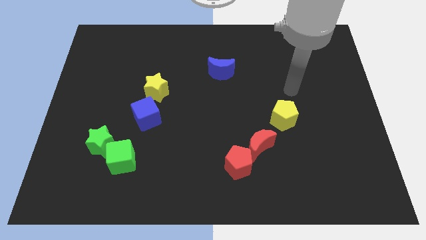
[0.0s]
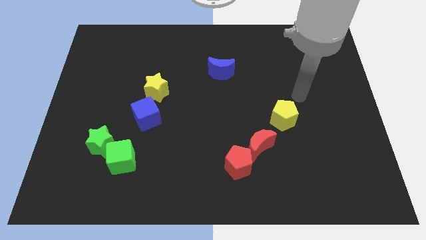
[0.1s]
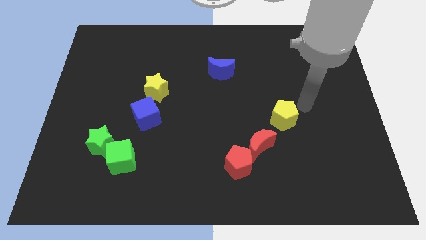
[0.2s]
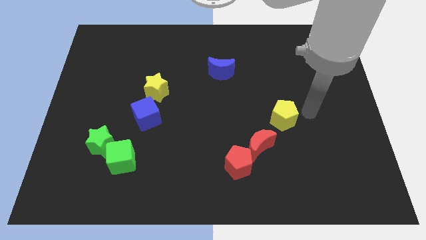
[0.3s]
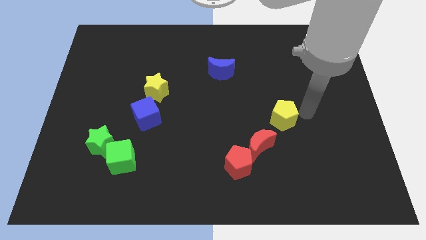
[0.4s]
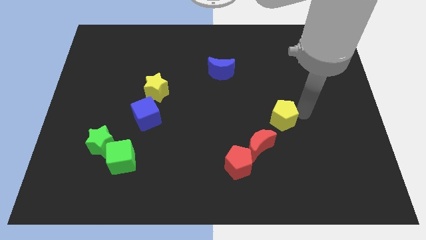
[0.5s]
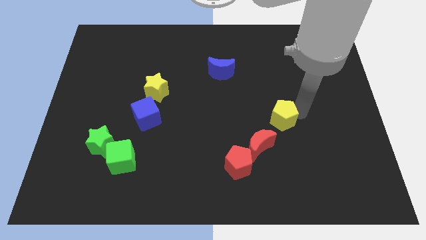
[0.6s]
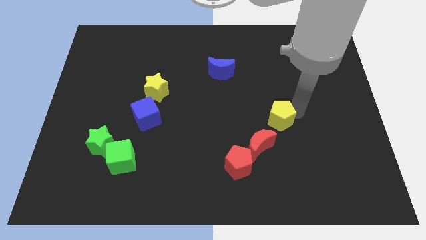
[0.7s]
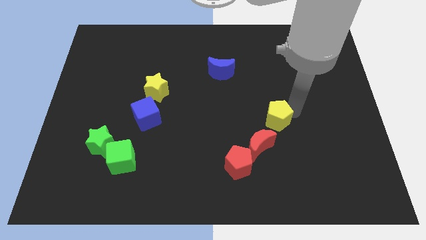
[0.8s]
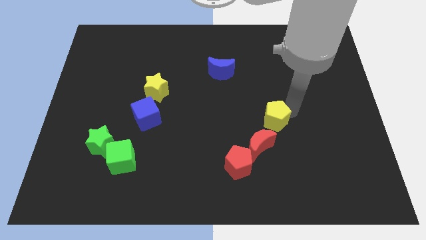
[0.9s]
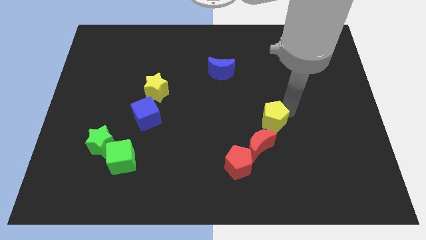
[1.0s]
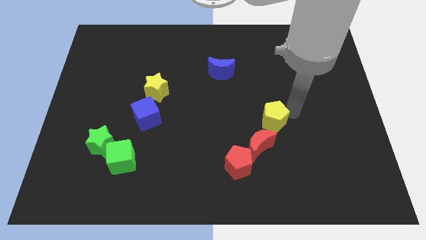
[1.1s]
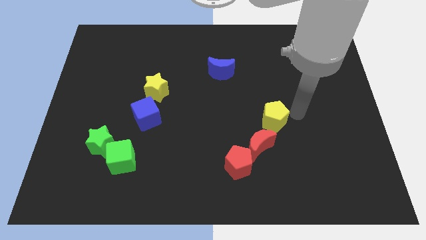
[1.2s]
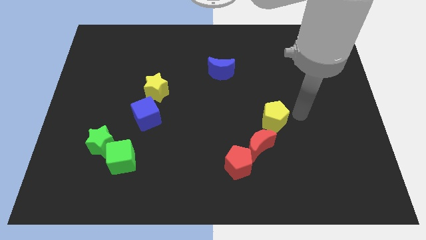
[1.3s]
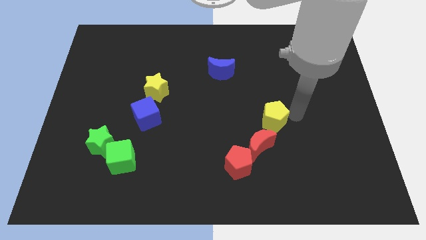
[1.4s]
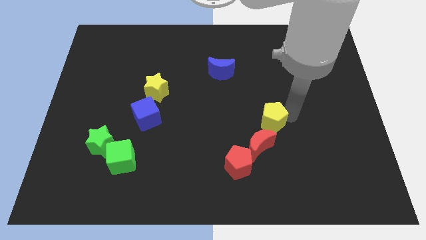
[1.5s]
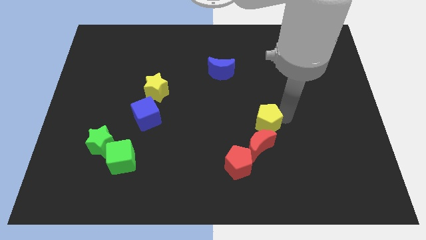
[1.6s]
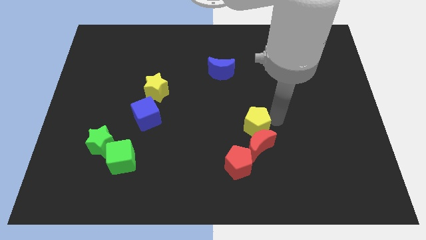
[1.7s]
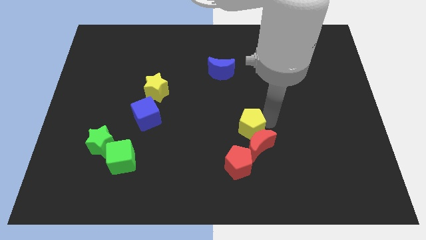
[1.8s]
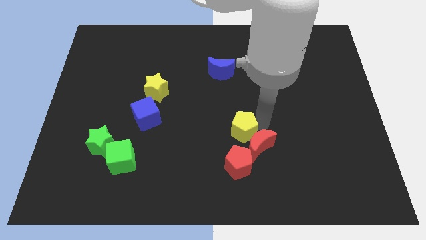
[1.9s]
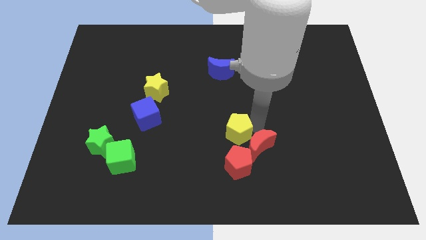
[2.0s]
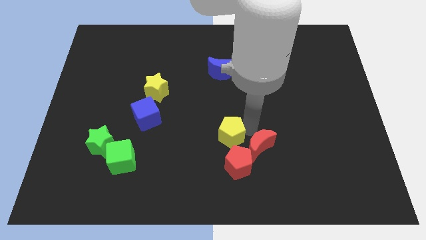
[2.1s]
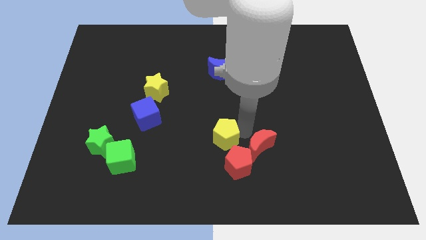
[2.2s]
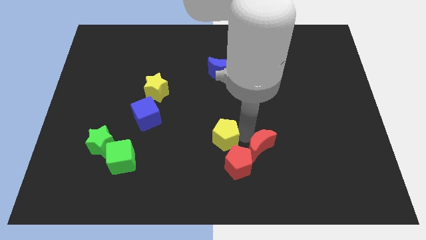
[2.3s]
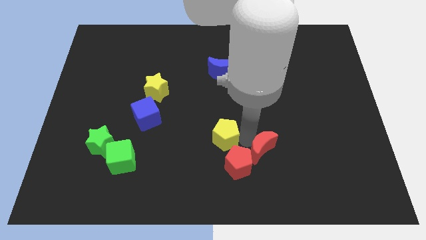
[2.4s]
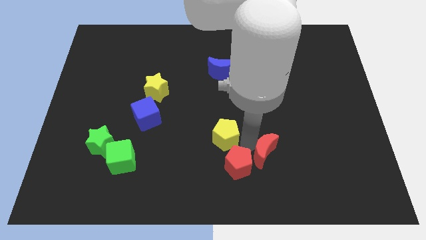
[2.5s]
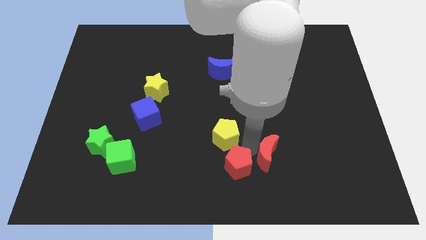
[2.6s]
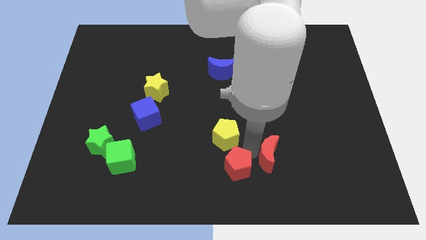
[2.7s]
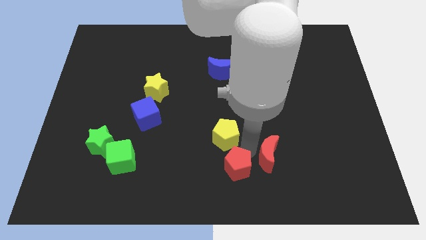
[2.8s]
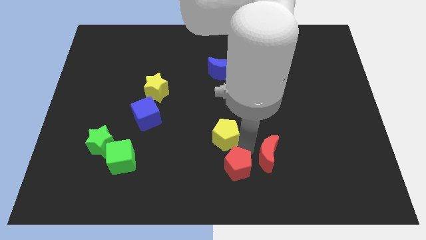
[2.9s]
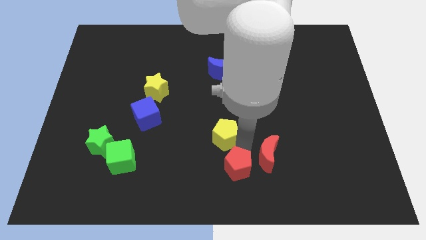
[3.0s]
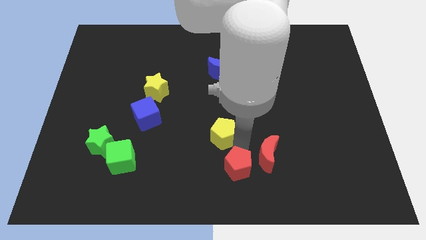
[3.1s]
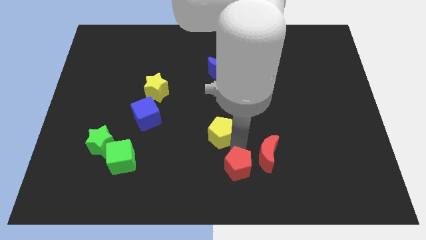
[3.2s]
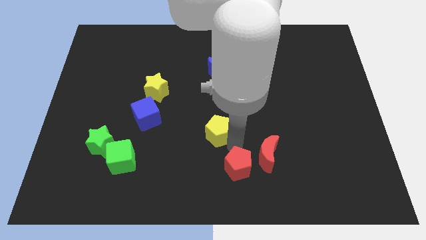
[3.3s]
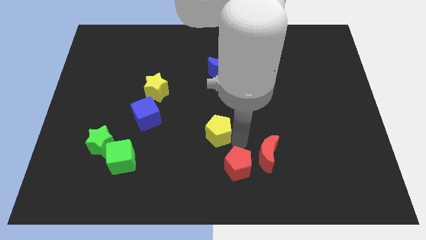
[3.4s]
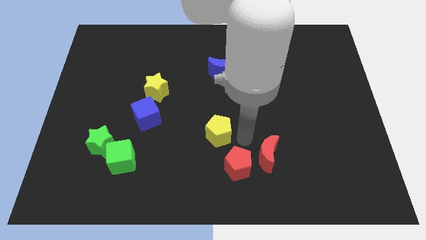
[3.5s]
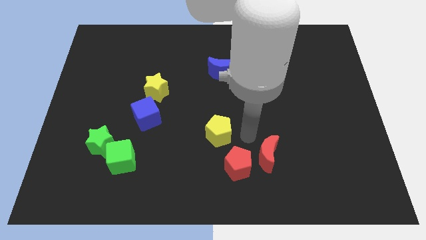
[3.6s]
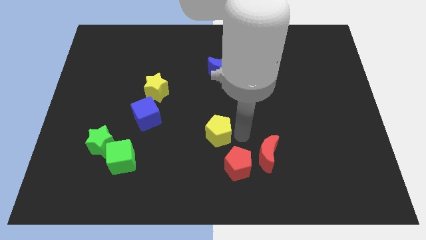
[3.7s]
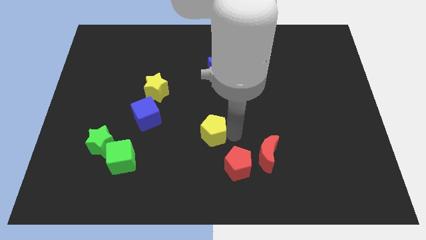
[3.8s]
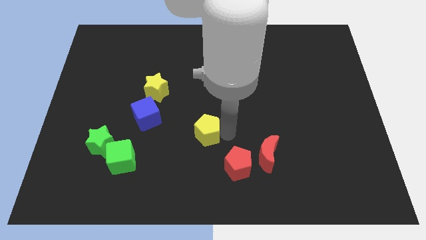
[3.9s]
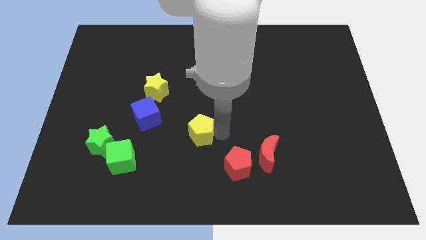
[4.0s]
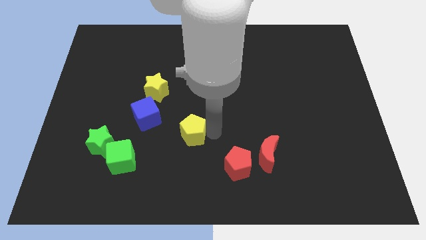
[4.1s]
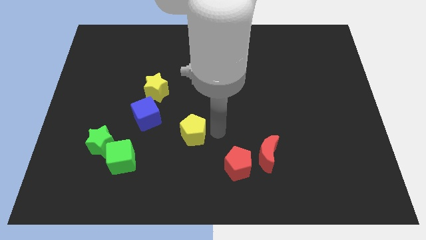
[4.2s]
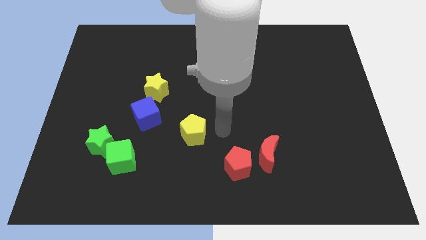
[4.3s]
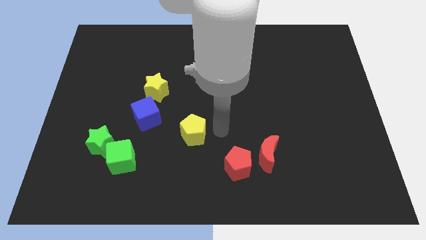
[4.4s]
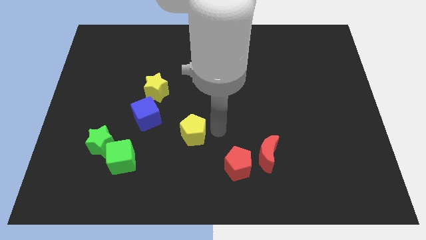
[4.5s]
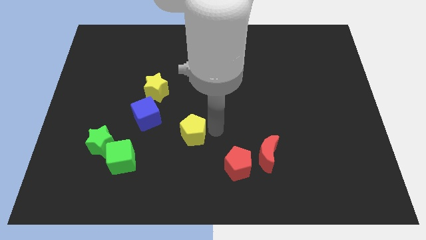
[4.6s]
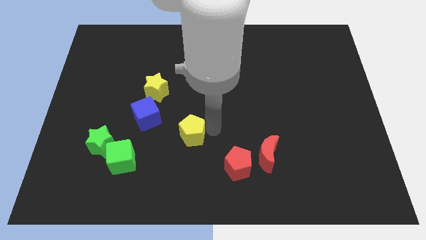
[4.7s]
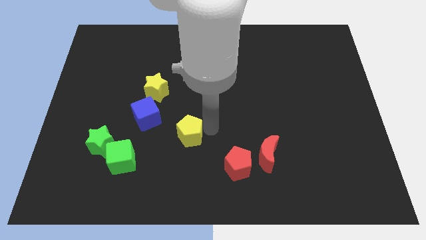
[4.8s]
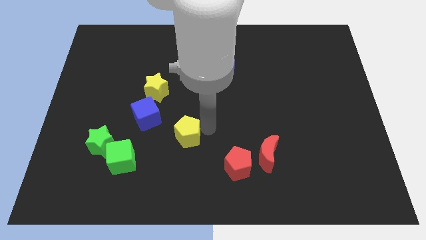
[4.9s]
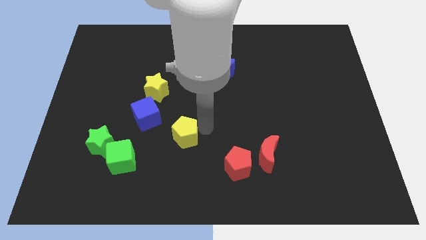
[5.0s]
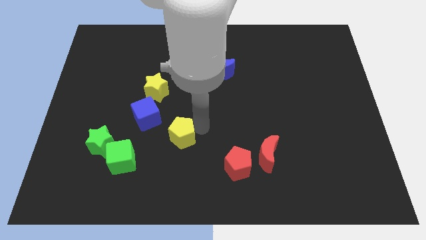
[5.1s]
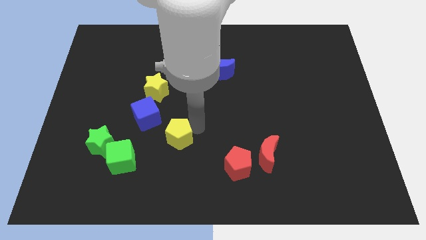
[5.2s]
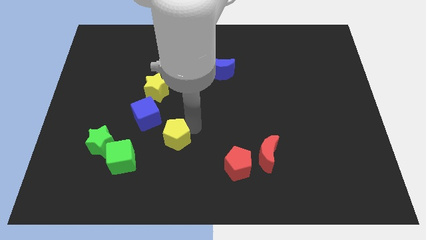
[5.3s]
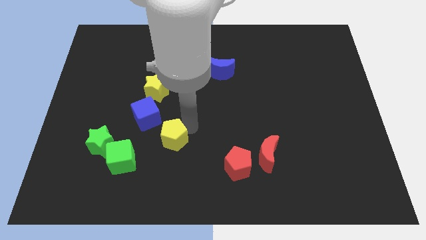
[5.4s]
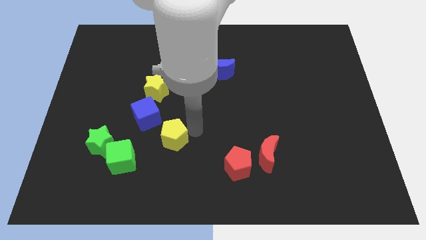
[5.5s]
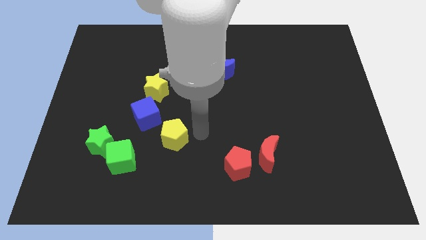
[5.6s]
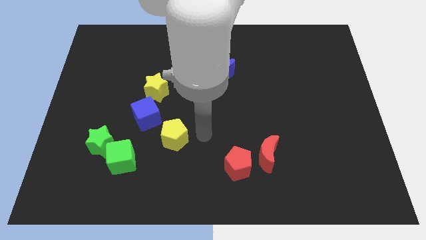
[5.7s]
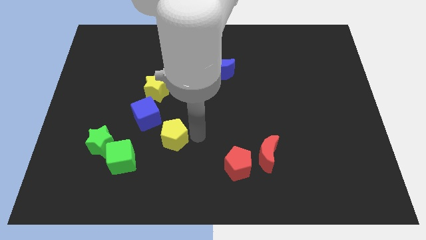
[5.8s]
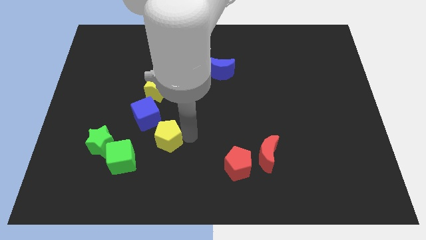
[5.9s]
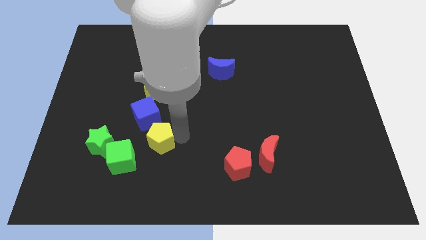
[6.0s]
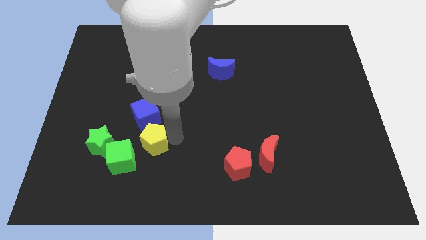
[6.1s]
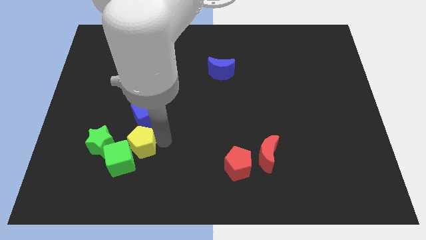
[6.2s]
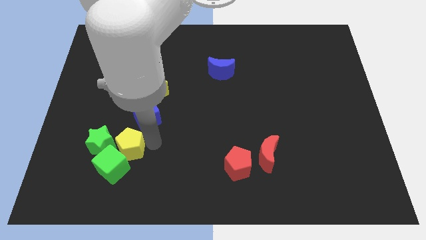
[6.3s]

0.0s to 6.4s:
move the yellow pentagon close to the green star

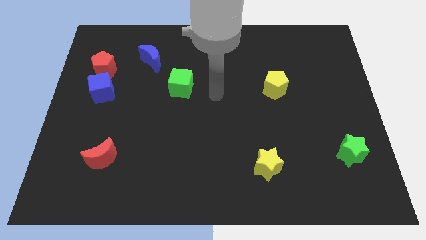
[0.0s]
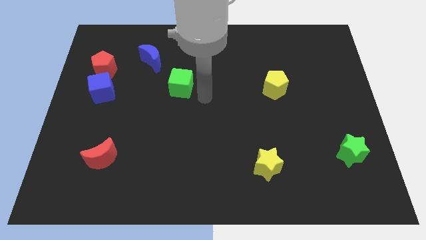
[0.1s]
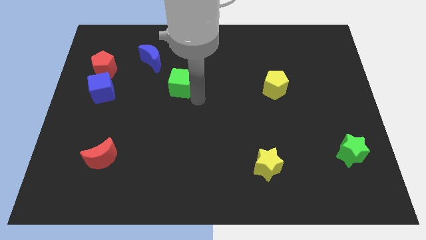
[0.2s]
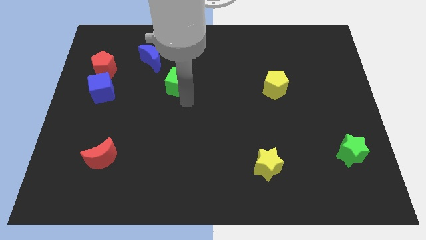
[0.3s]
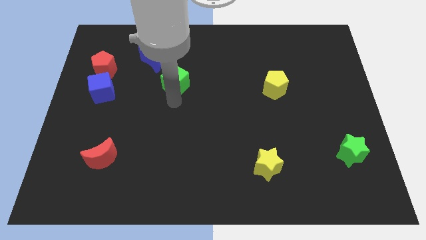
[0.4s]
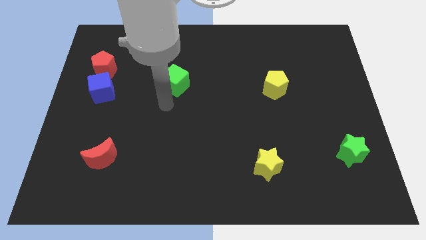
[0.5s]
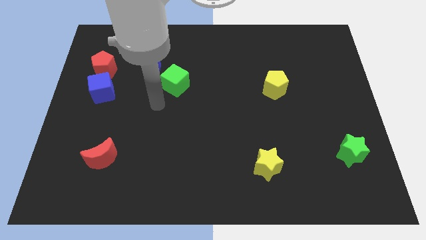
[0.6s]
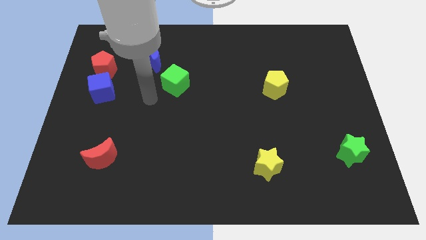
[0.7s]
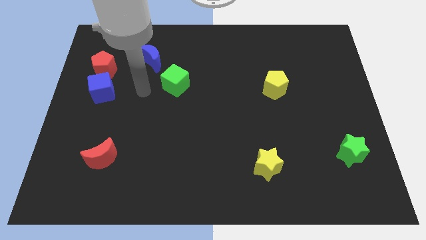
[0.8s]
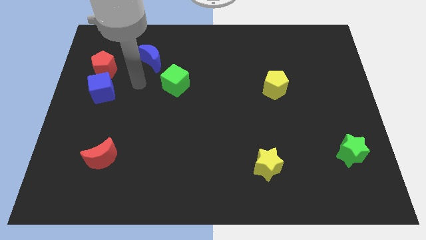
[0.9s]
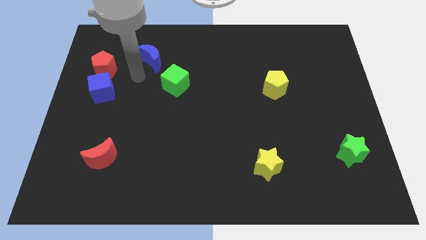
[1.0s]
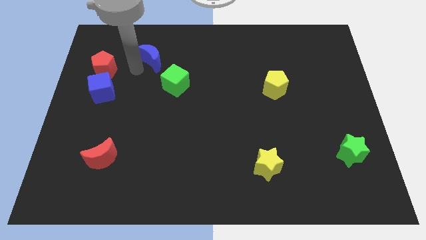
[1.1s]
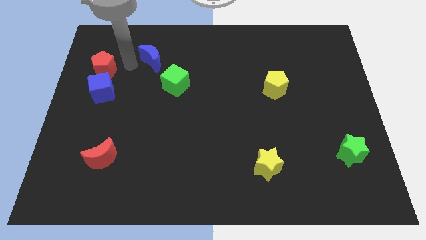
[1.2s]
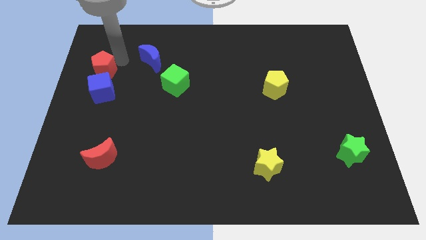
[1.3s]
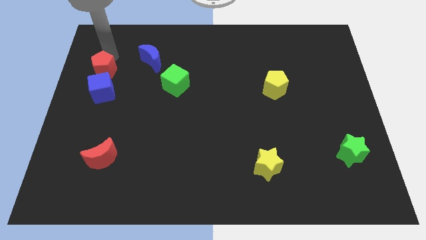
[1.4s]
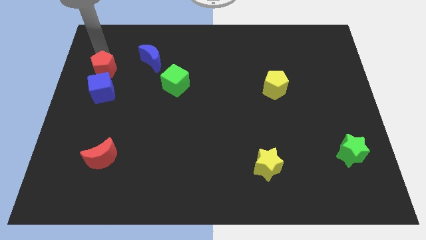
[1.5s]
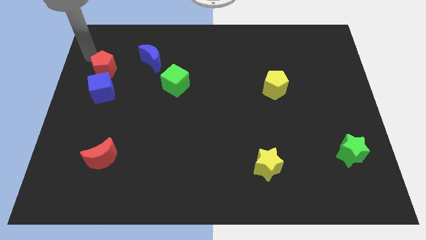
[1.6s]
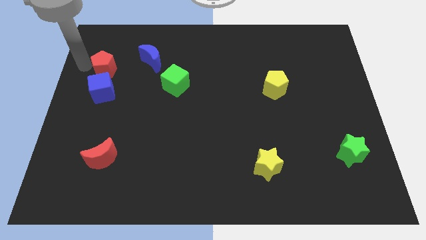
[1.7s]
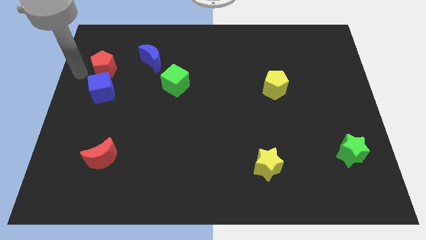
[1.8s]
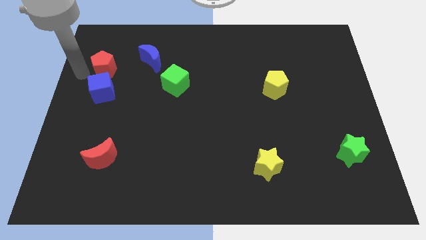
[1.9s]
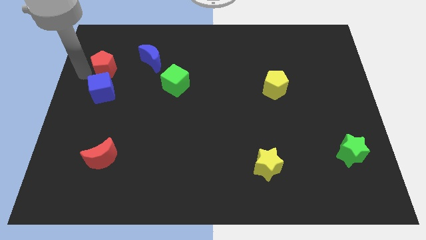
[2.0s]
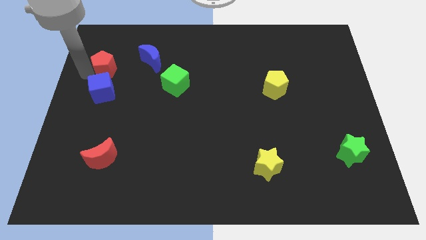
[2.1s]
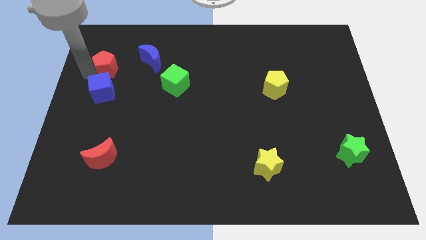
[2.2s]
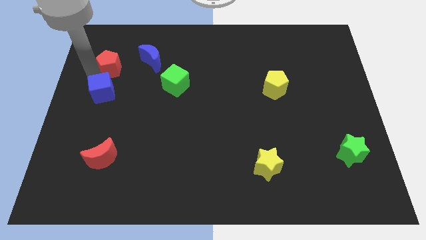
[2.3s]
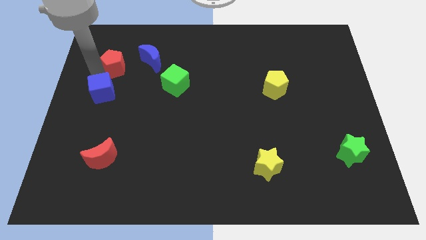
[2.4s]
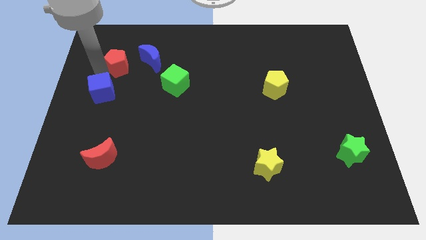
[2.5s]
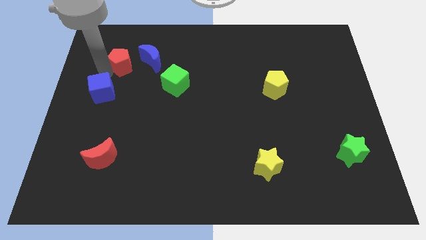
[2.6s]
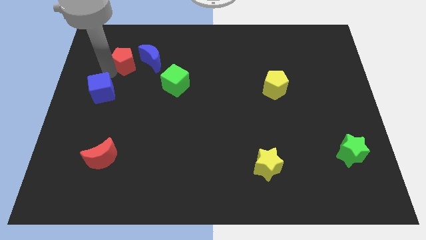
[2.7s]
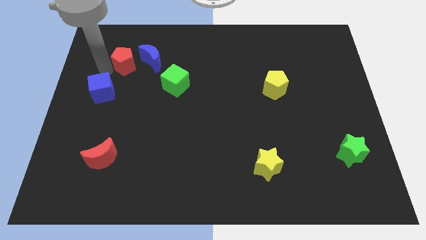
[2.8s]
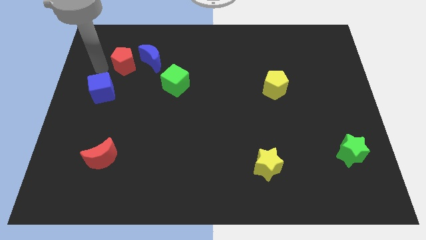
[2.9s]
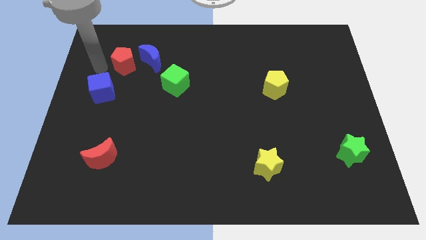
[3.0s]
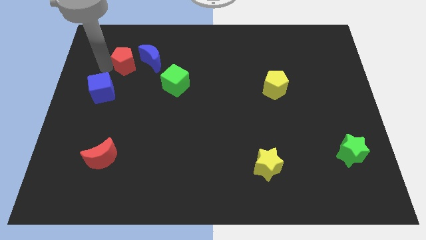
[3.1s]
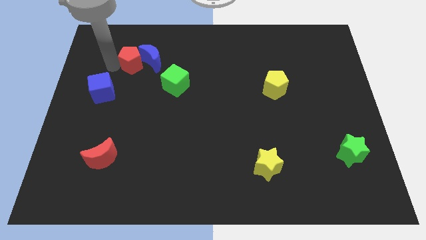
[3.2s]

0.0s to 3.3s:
push the red pentagon next to the blue moon
